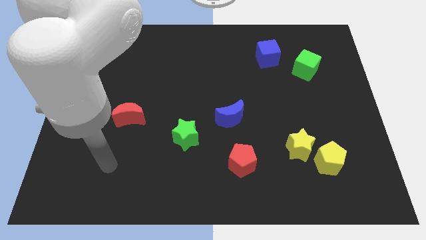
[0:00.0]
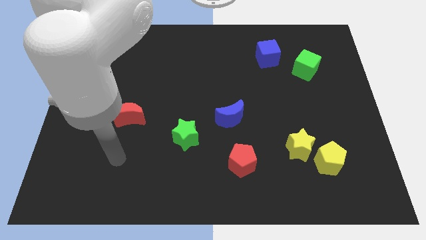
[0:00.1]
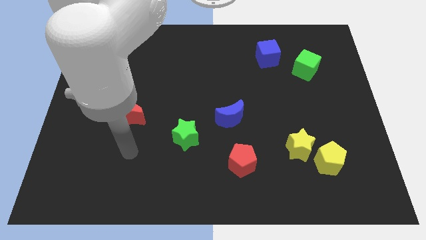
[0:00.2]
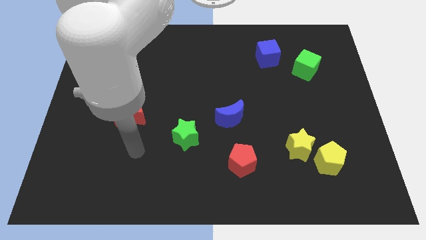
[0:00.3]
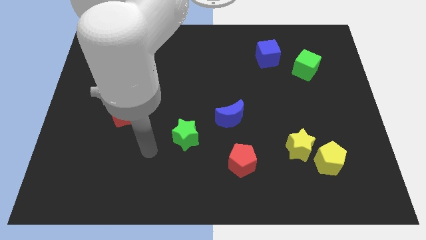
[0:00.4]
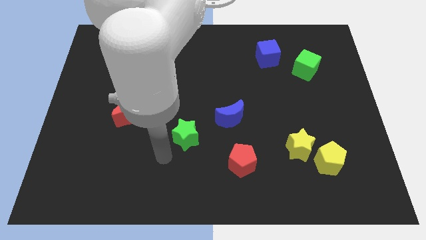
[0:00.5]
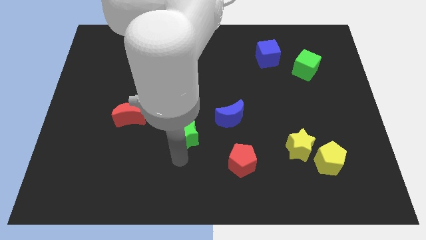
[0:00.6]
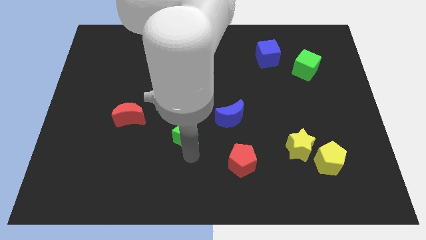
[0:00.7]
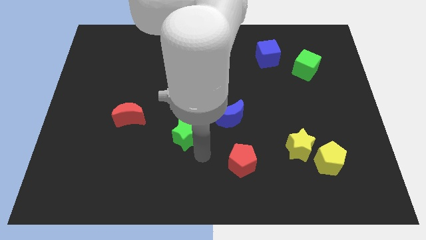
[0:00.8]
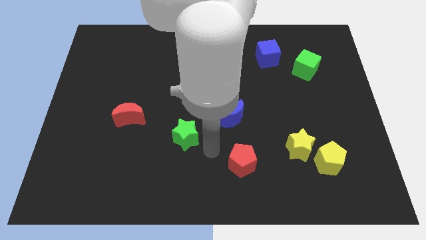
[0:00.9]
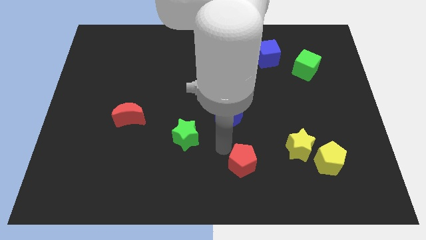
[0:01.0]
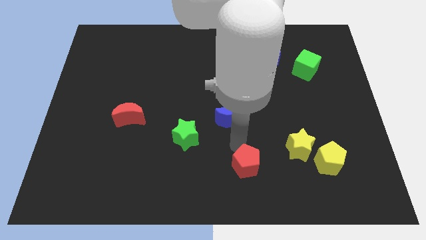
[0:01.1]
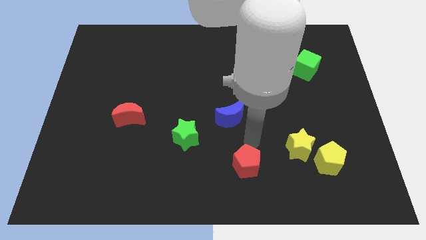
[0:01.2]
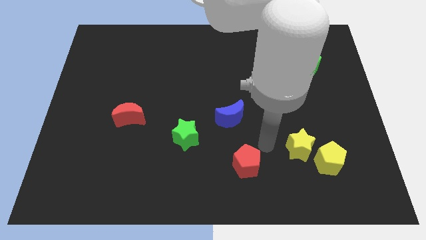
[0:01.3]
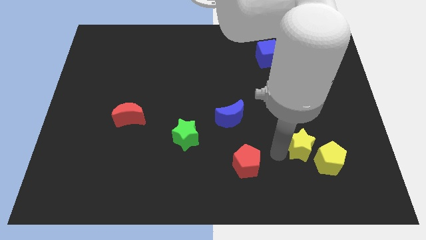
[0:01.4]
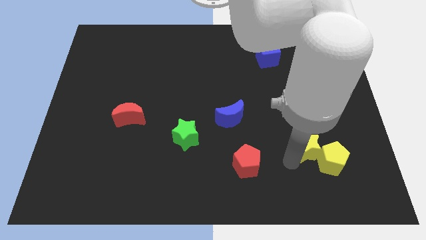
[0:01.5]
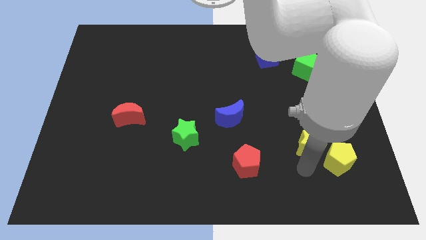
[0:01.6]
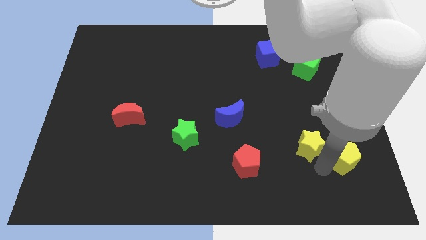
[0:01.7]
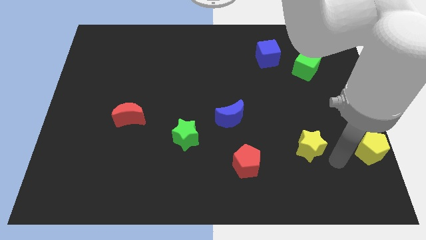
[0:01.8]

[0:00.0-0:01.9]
separate the yellow star from the yellow pentagon

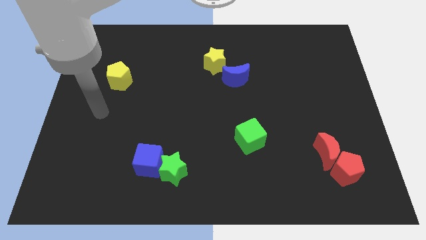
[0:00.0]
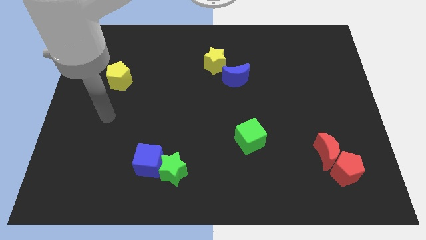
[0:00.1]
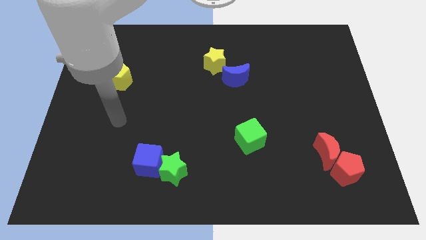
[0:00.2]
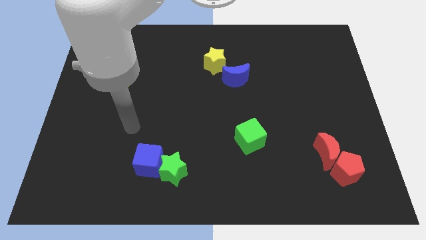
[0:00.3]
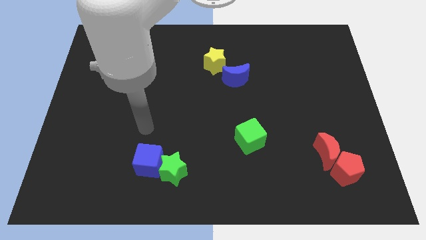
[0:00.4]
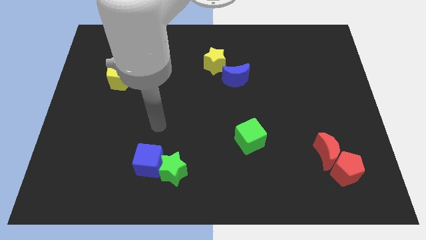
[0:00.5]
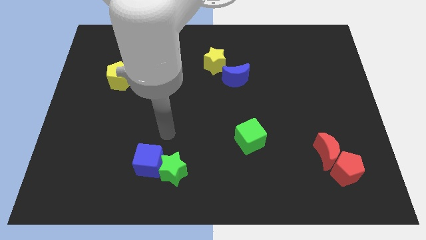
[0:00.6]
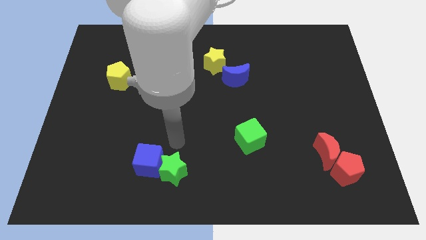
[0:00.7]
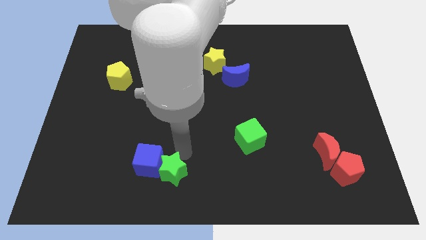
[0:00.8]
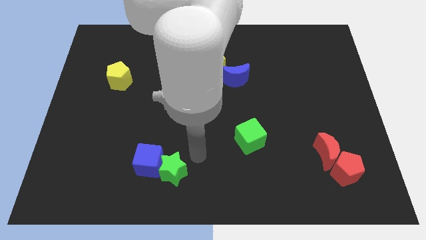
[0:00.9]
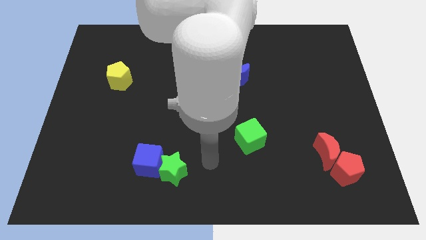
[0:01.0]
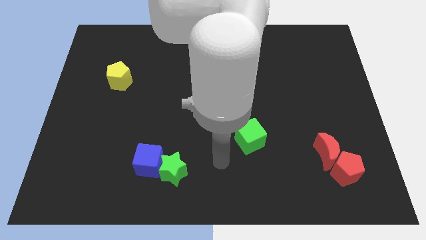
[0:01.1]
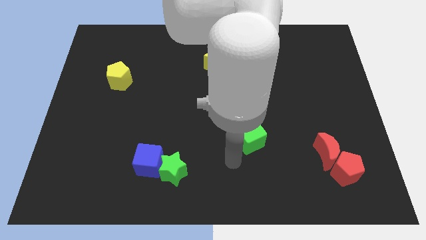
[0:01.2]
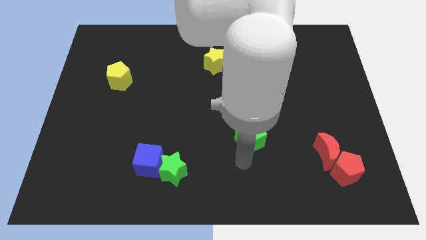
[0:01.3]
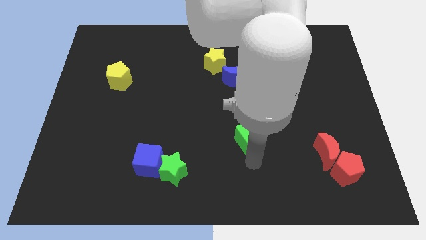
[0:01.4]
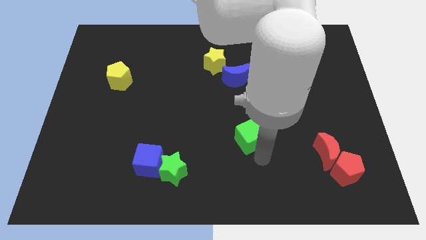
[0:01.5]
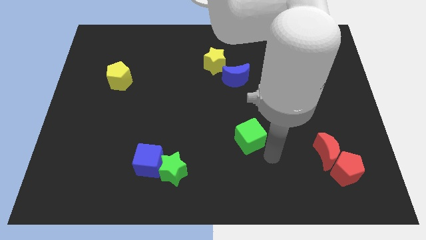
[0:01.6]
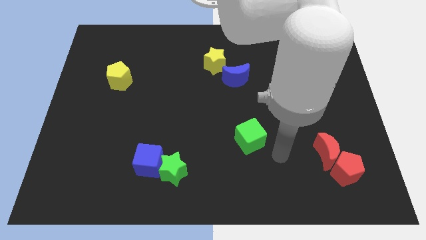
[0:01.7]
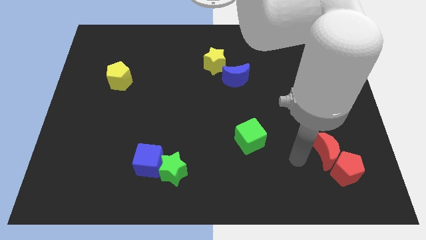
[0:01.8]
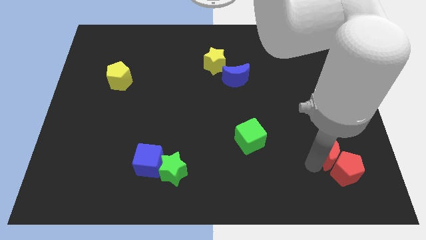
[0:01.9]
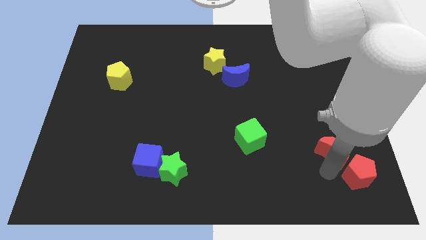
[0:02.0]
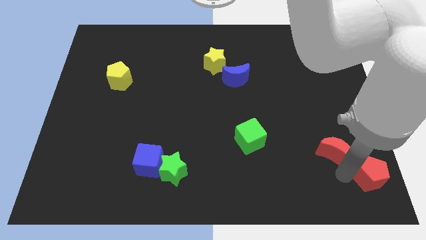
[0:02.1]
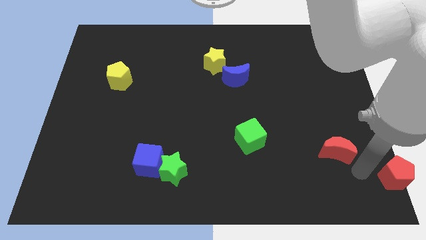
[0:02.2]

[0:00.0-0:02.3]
separate the red moon from the red pentagon

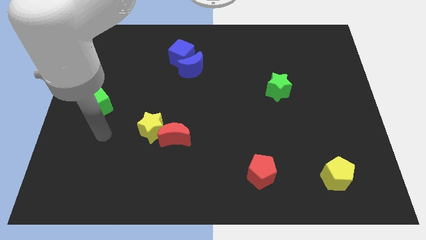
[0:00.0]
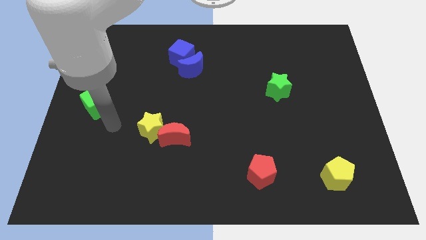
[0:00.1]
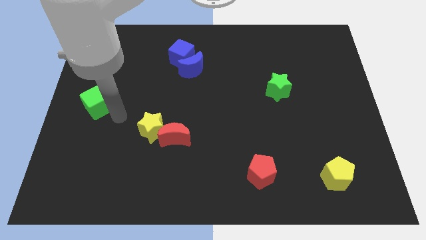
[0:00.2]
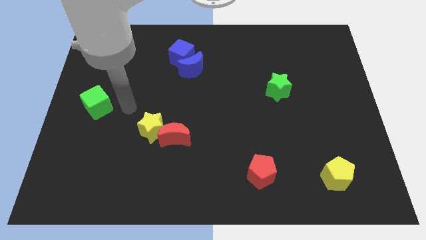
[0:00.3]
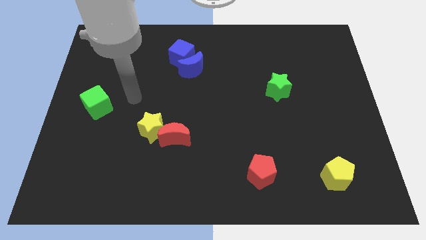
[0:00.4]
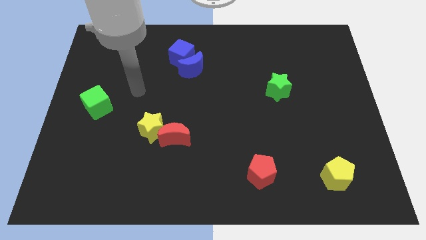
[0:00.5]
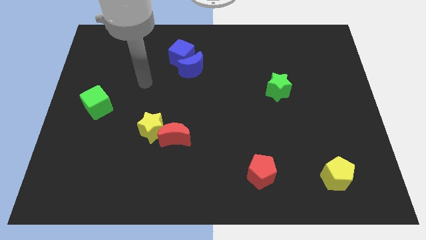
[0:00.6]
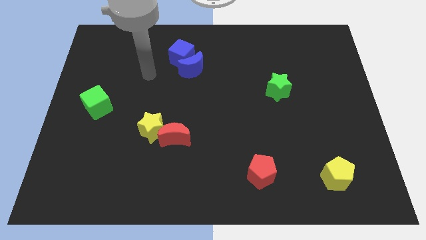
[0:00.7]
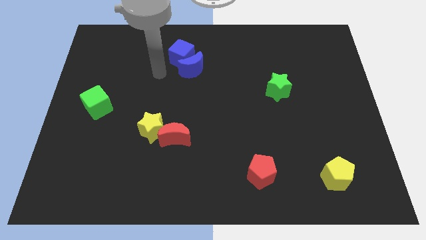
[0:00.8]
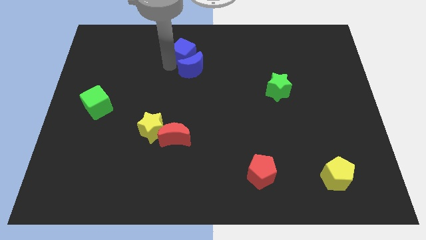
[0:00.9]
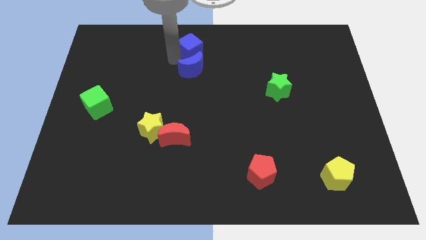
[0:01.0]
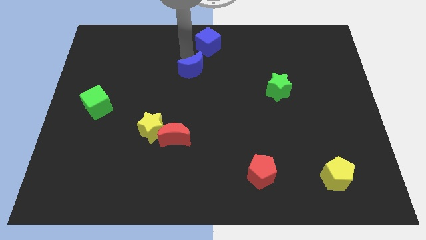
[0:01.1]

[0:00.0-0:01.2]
move the blue moon away from the blue cube

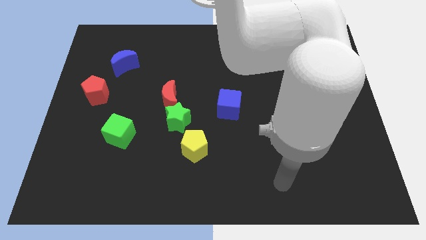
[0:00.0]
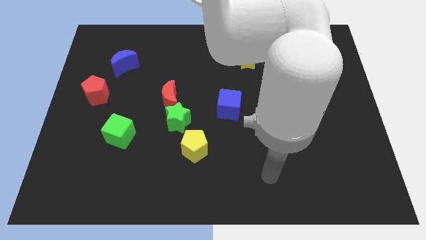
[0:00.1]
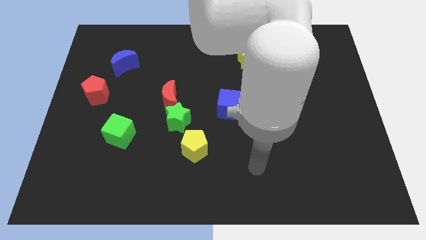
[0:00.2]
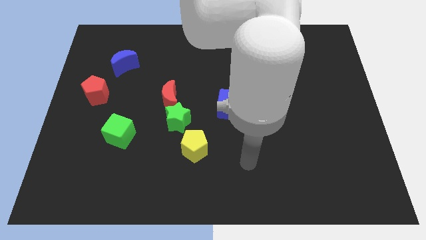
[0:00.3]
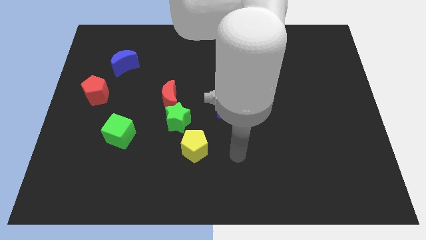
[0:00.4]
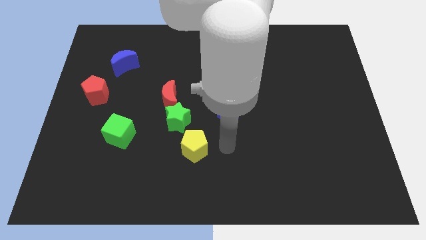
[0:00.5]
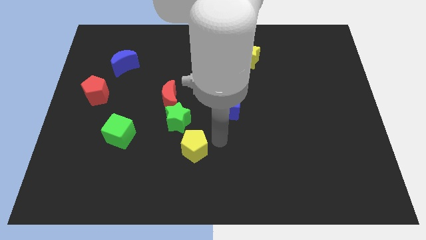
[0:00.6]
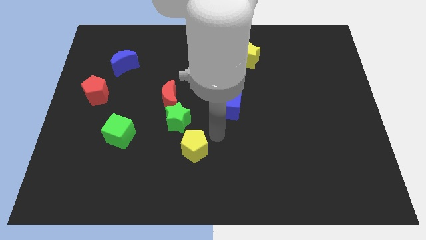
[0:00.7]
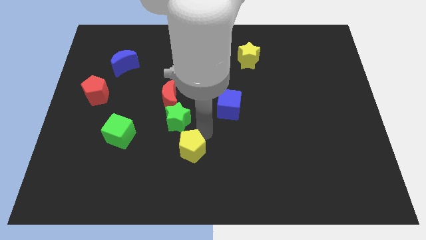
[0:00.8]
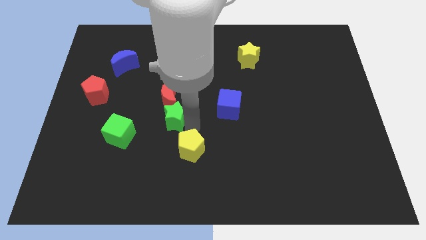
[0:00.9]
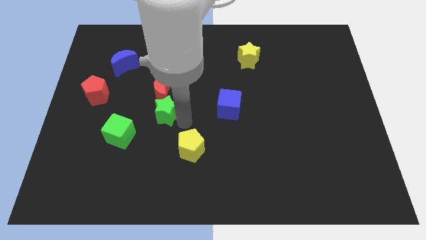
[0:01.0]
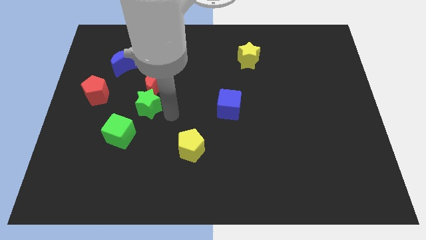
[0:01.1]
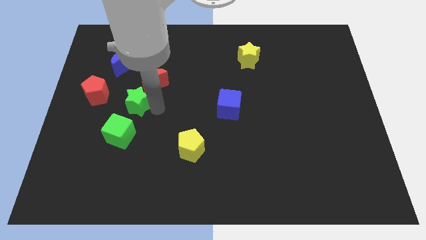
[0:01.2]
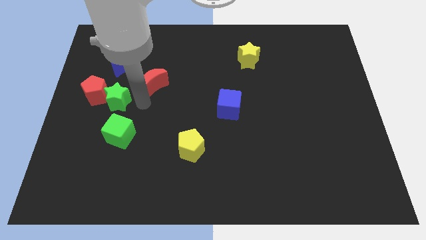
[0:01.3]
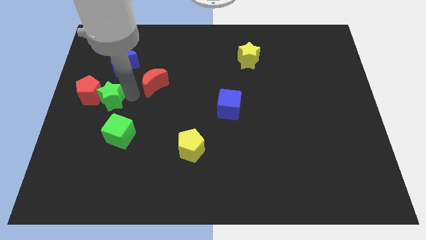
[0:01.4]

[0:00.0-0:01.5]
separate the red moon from the green star

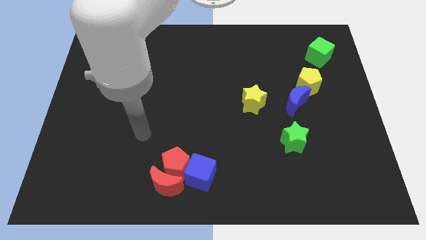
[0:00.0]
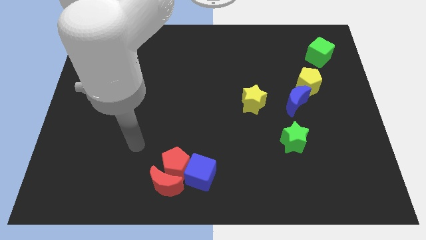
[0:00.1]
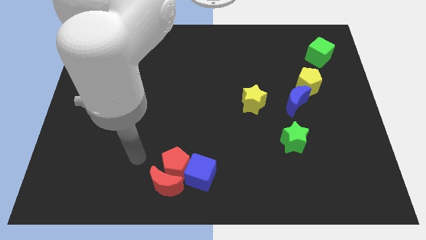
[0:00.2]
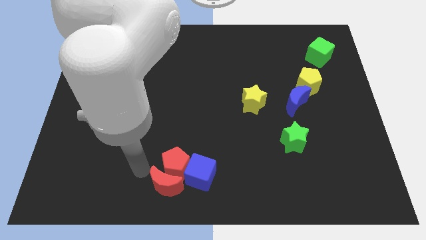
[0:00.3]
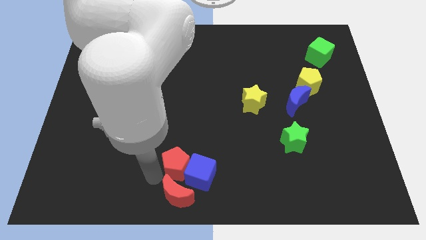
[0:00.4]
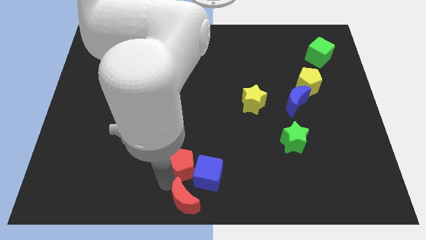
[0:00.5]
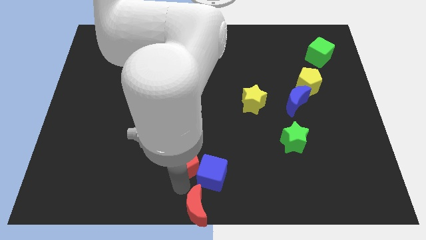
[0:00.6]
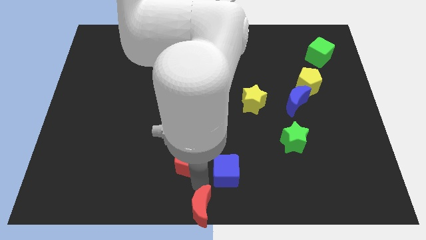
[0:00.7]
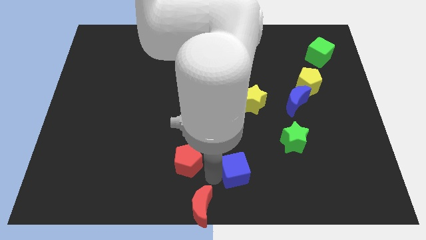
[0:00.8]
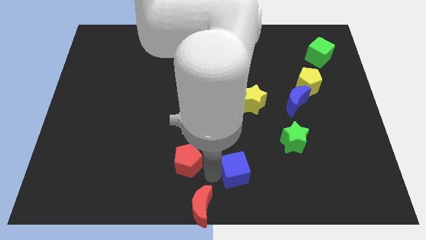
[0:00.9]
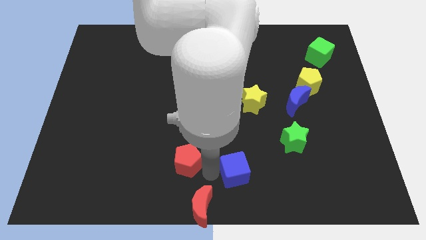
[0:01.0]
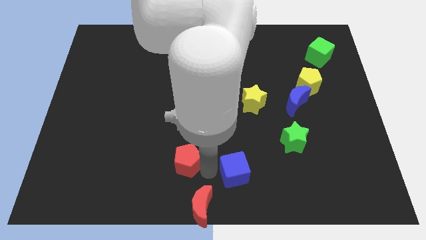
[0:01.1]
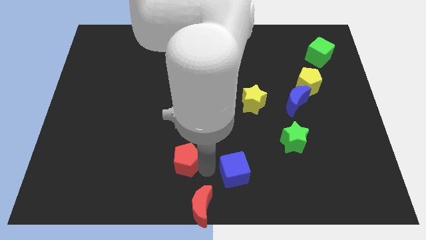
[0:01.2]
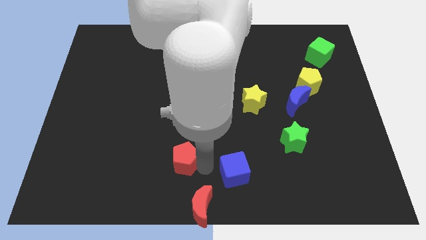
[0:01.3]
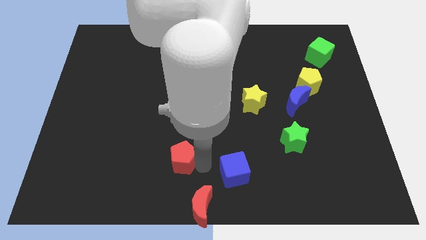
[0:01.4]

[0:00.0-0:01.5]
separate the red pentagon from the red moon and blue cube

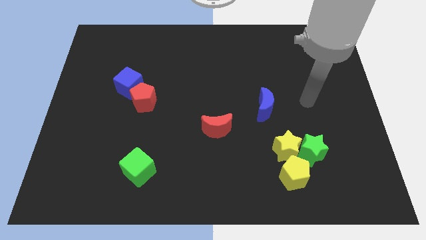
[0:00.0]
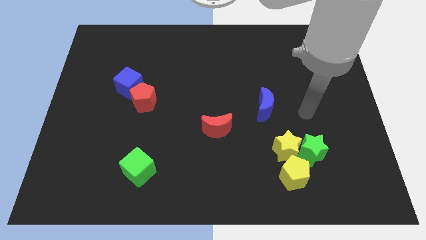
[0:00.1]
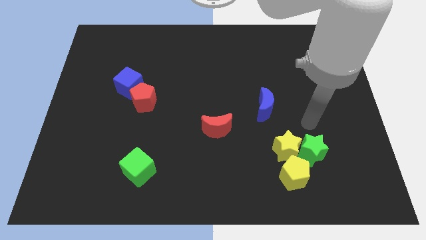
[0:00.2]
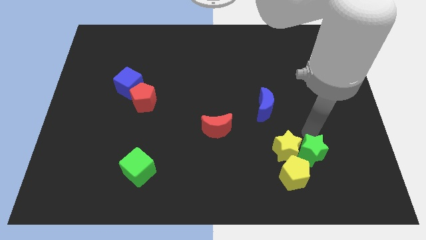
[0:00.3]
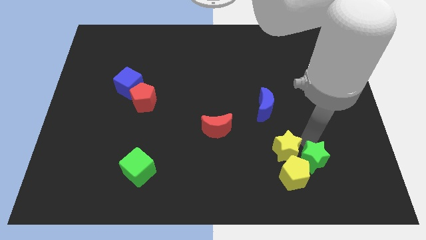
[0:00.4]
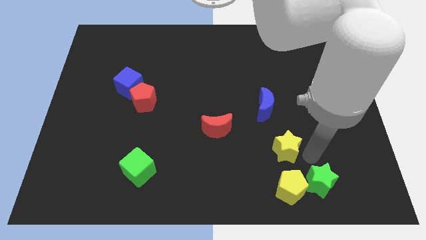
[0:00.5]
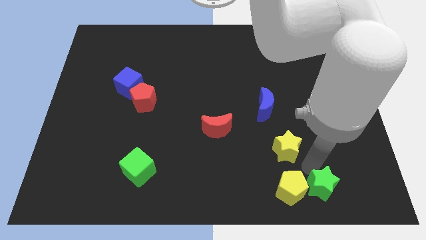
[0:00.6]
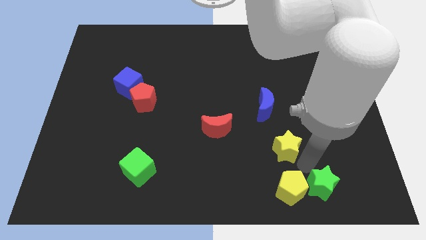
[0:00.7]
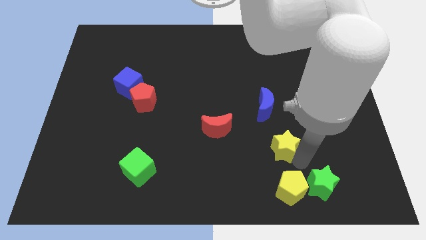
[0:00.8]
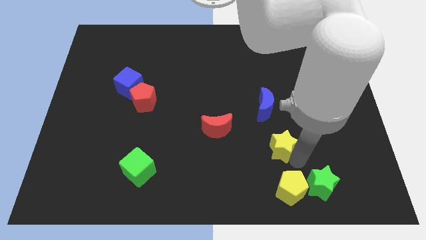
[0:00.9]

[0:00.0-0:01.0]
move the yellow star away from the green star and yellow pentagon
